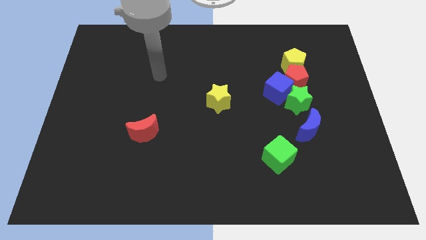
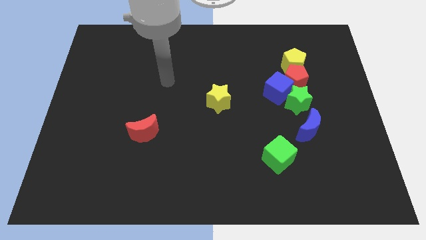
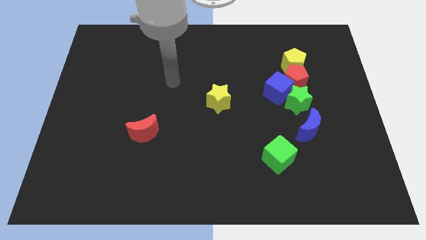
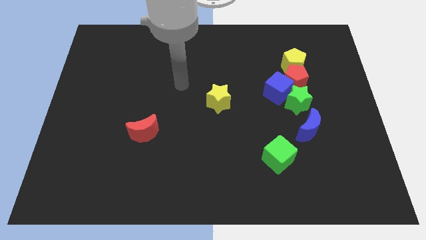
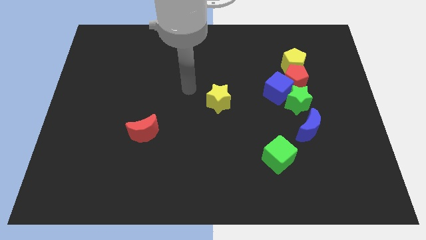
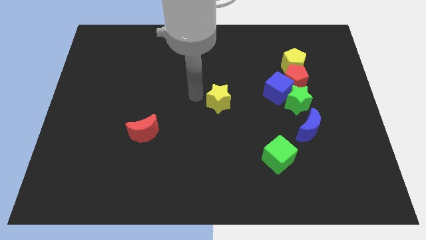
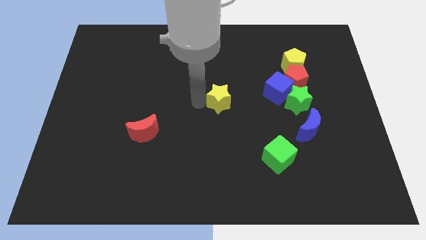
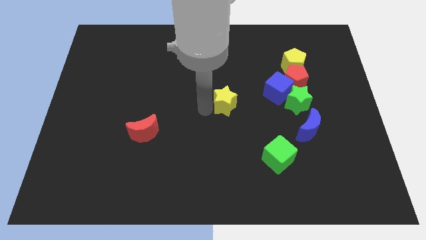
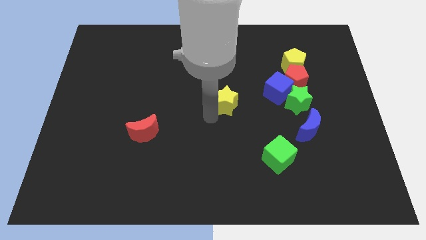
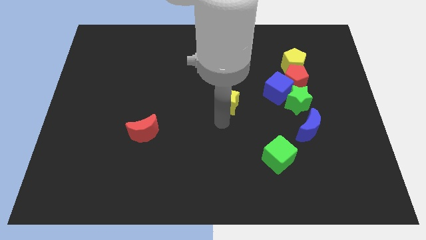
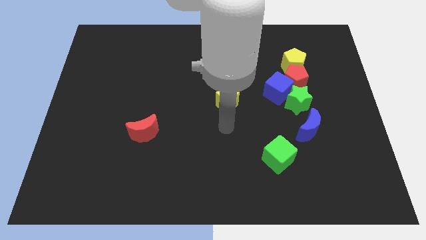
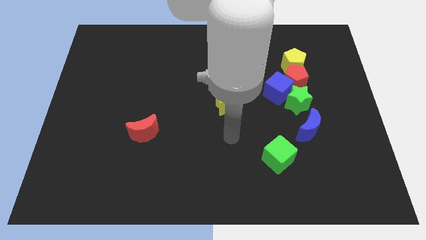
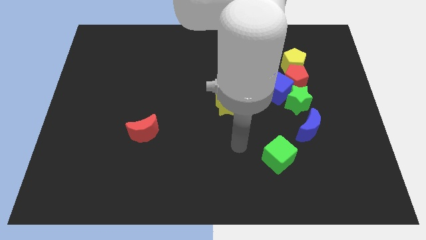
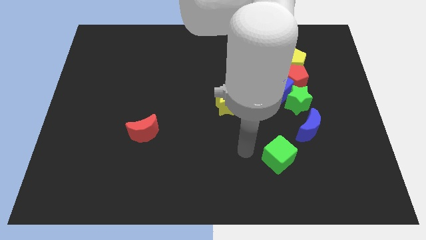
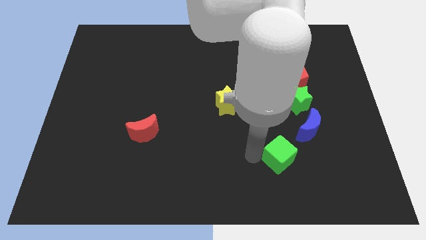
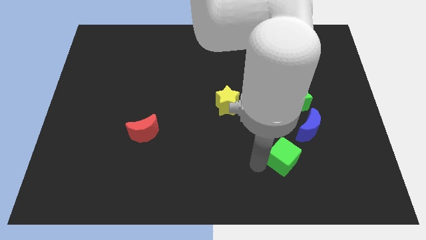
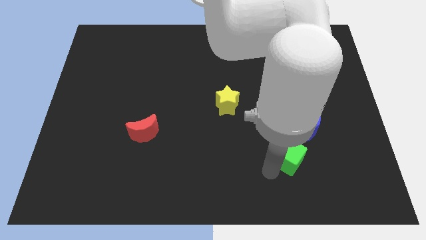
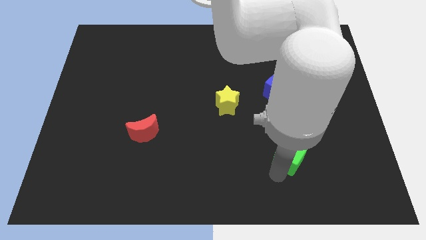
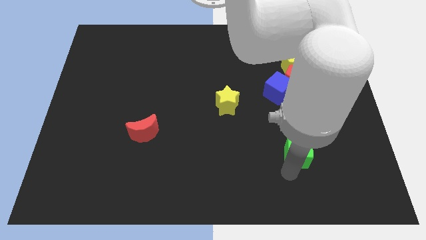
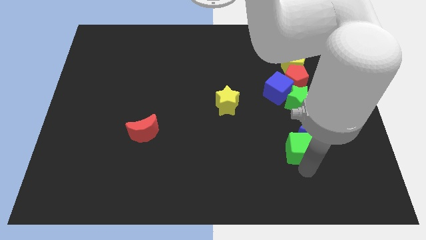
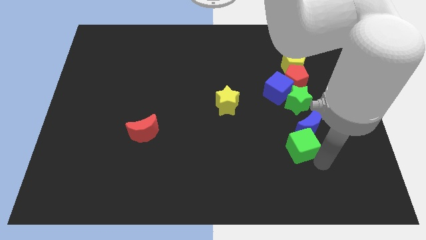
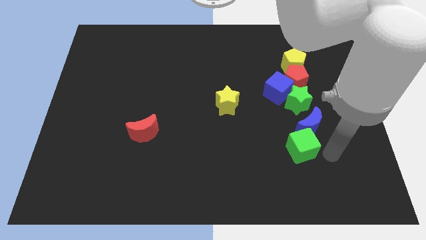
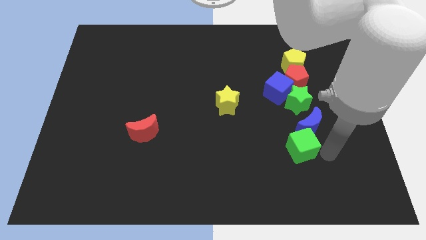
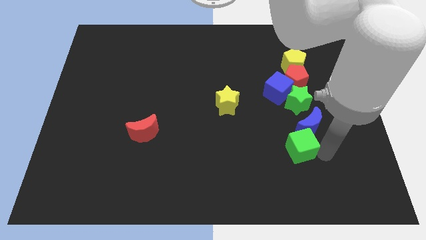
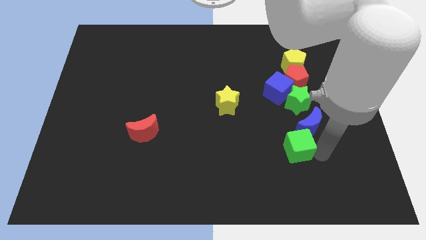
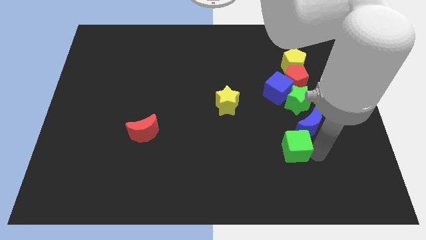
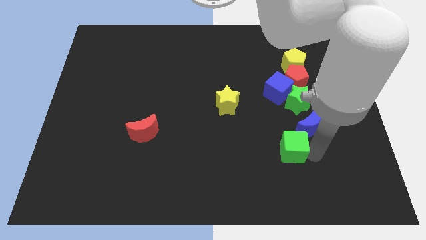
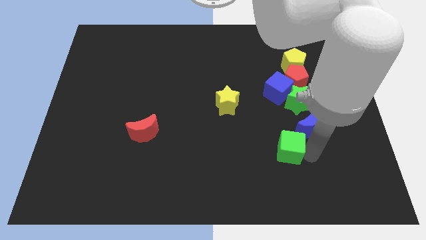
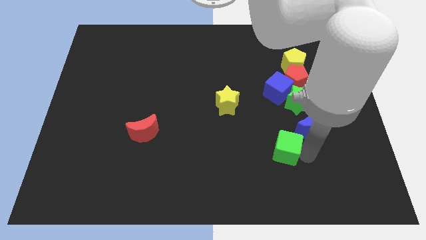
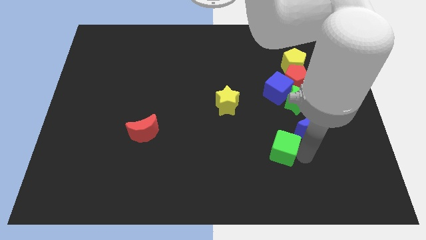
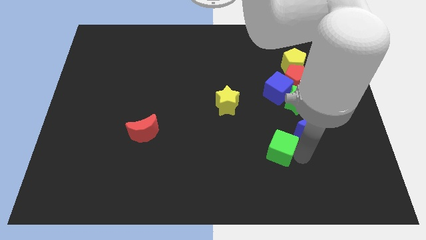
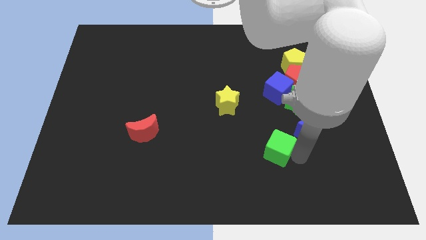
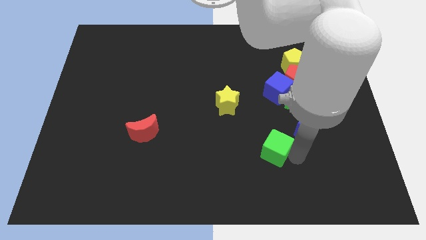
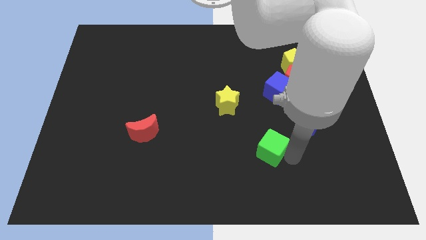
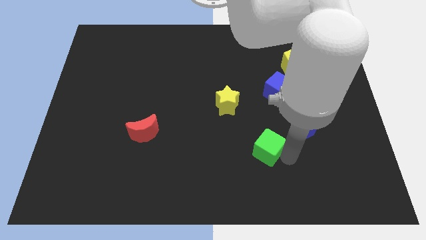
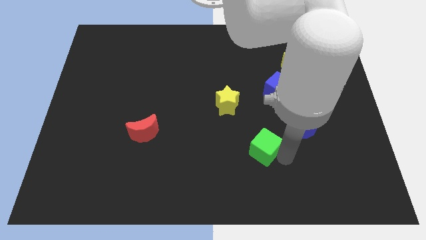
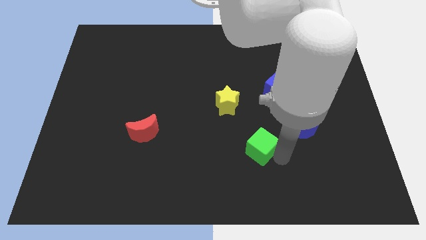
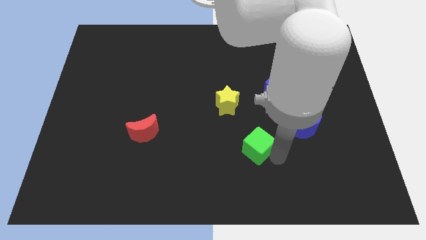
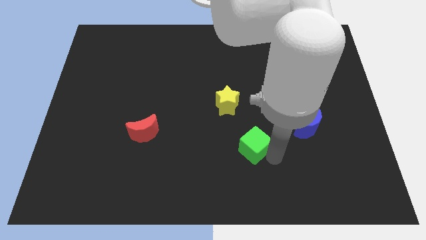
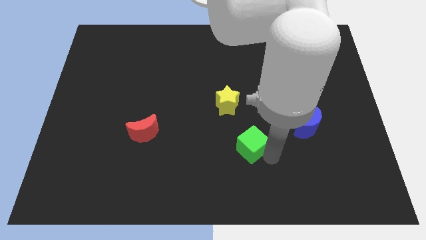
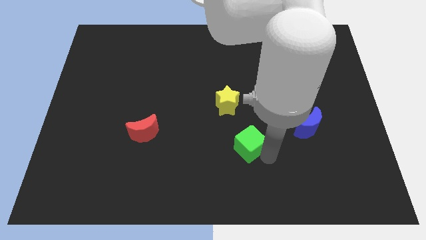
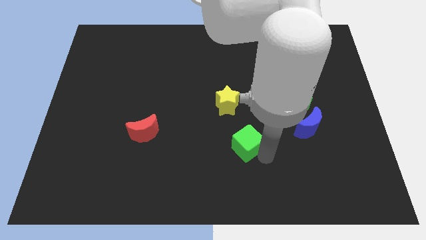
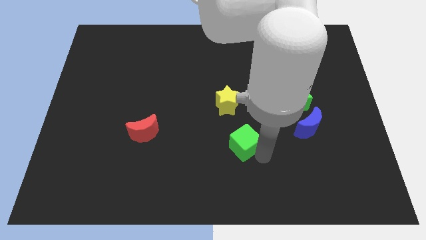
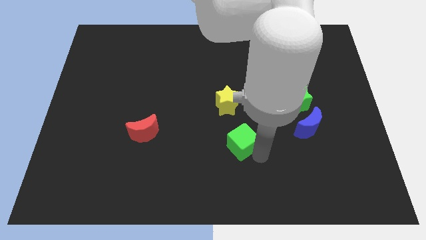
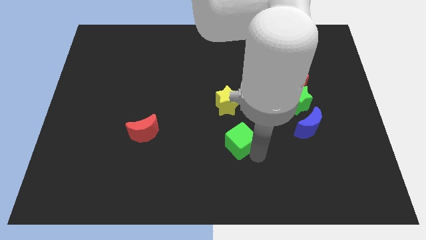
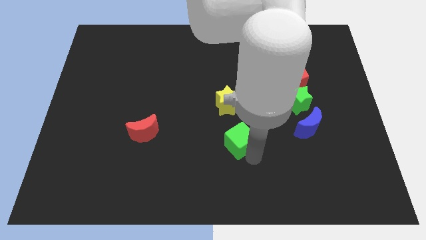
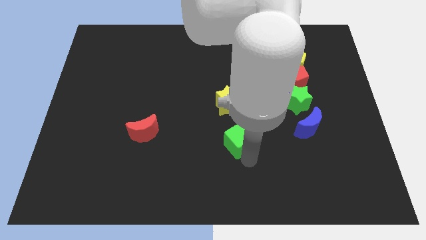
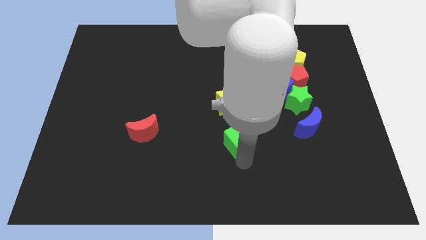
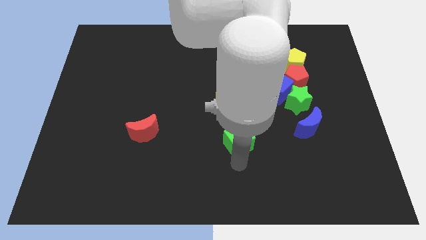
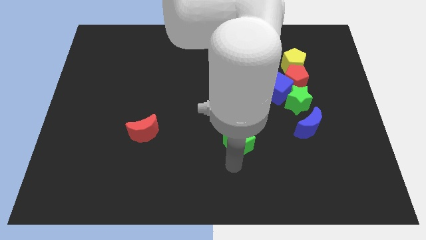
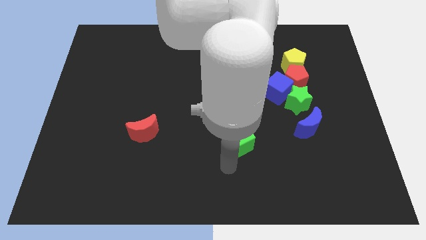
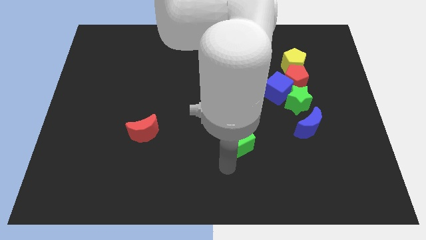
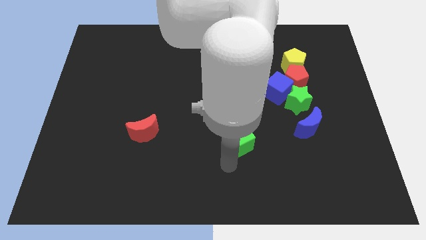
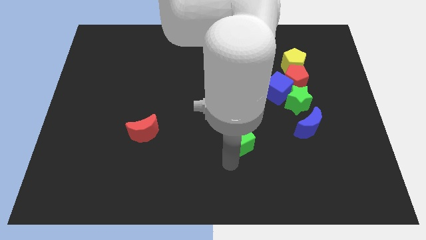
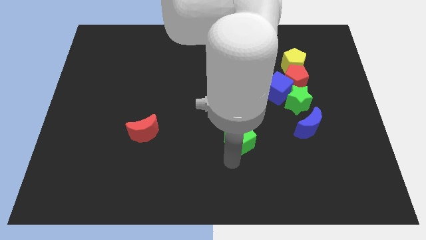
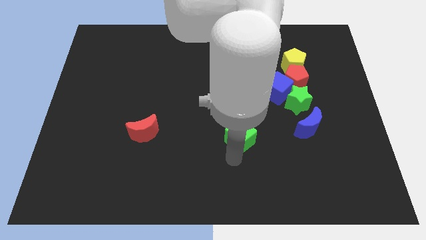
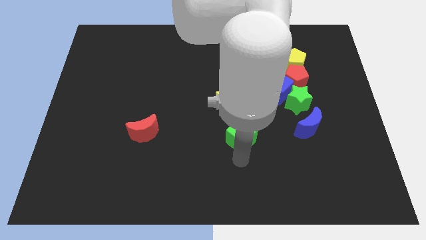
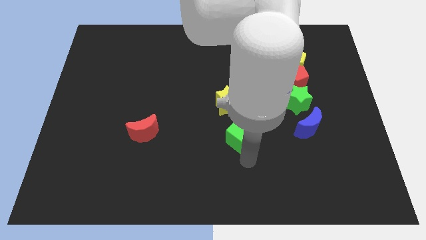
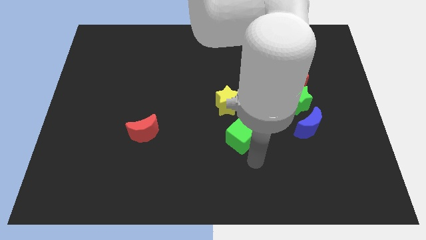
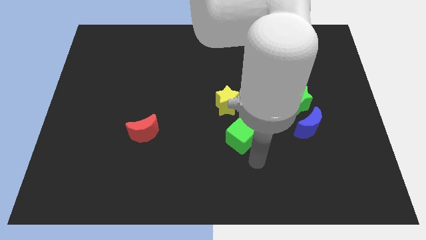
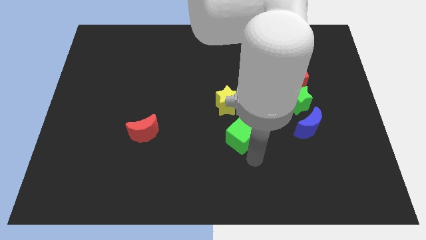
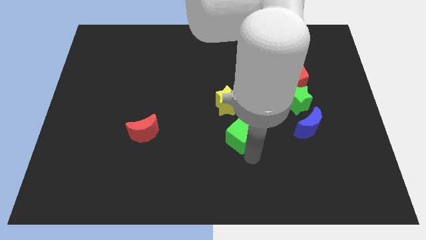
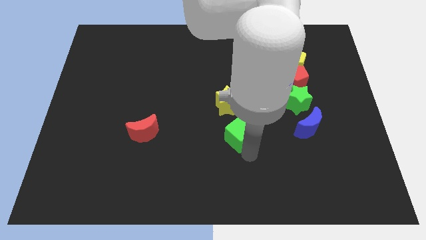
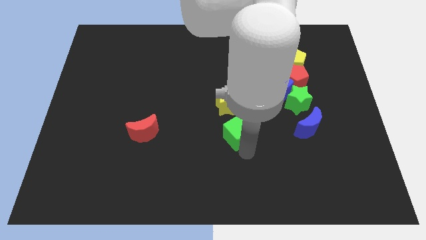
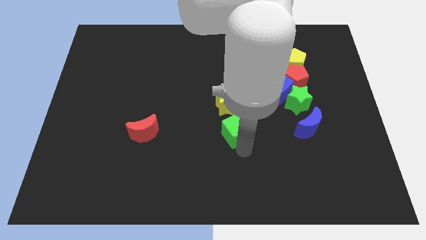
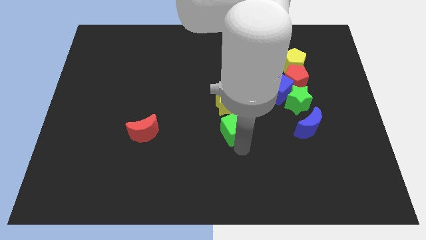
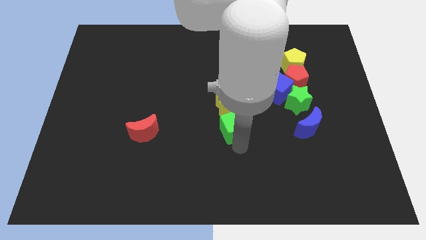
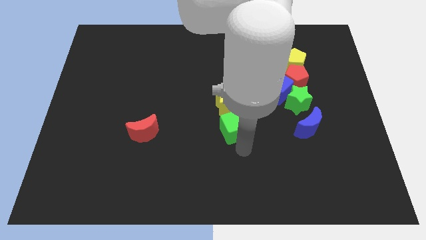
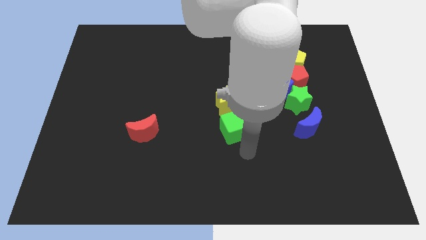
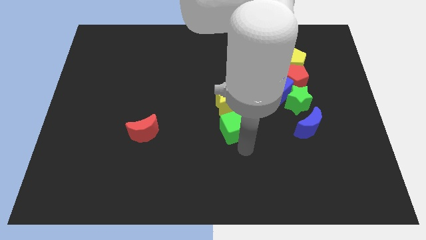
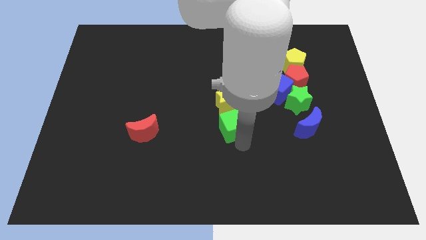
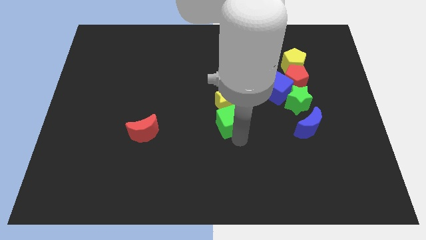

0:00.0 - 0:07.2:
put the green cube close to the yellow star

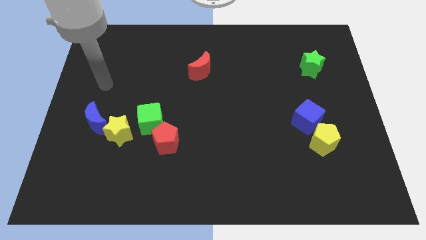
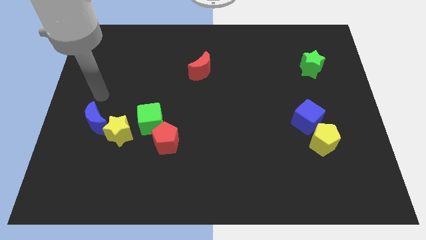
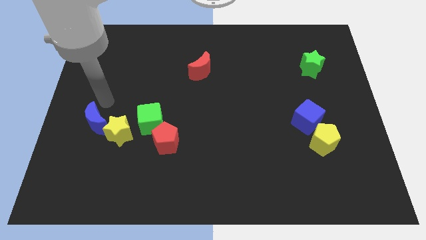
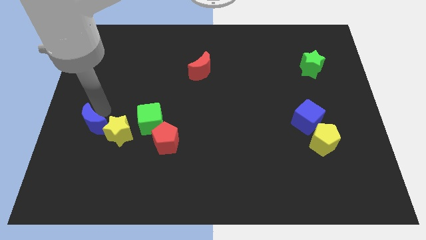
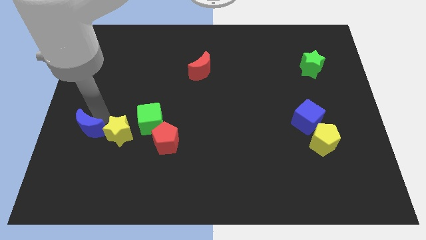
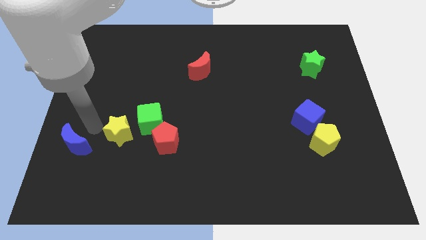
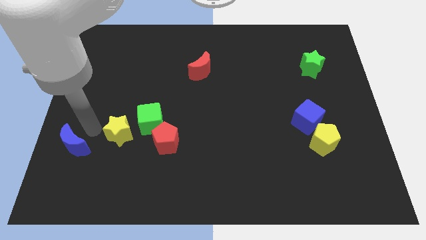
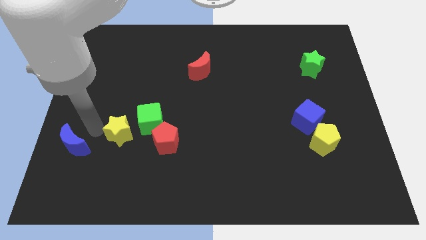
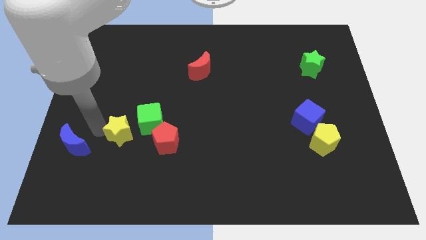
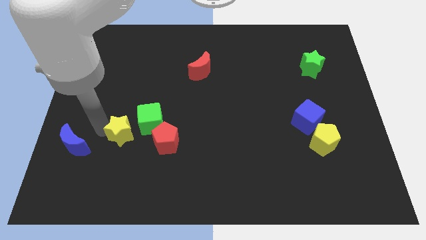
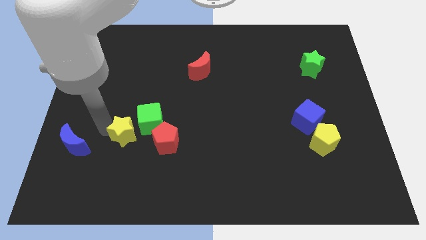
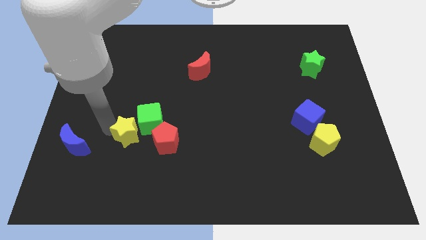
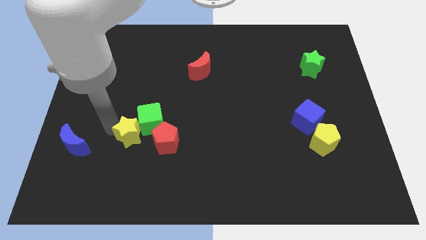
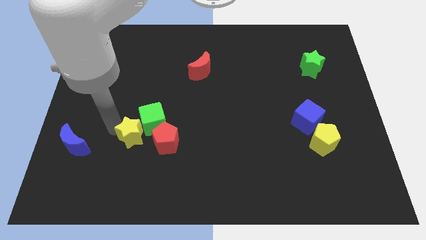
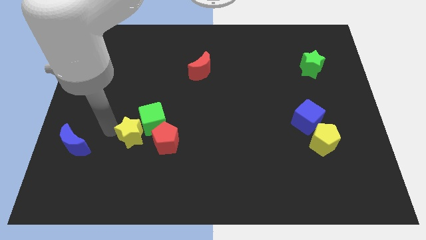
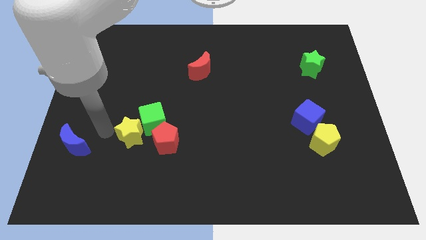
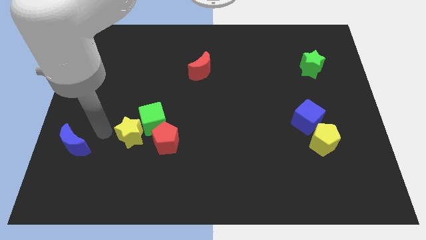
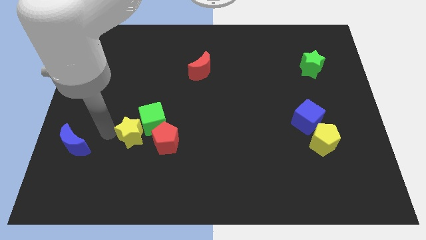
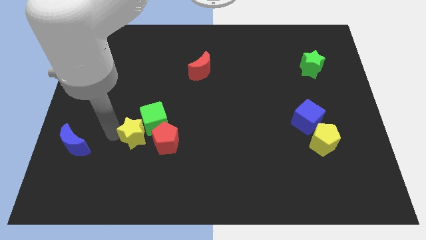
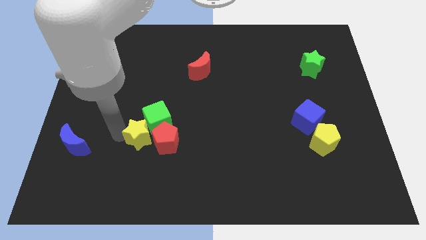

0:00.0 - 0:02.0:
move the yellow star next to the red pentagon
